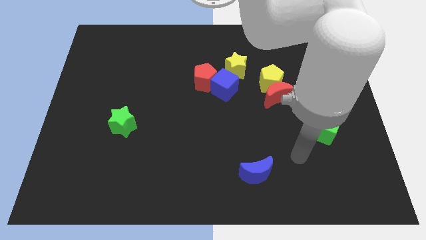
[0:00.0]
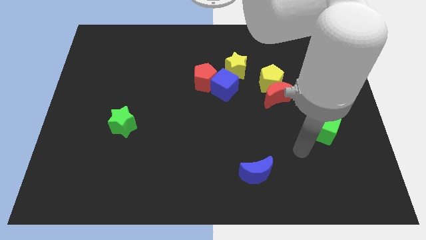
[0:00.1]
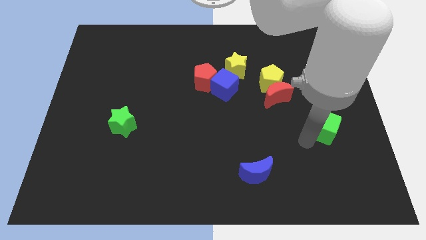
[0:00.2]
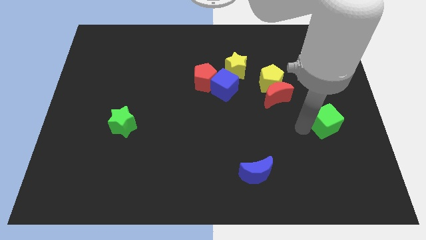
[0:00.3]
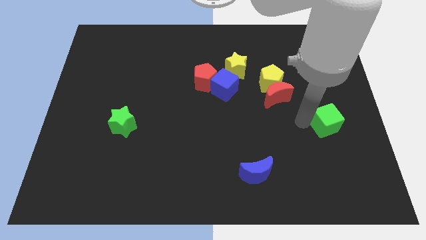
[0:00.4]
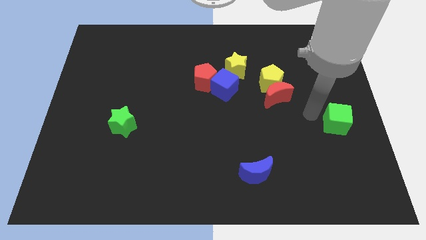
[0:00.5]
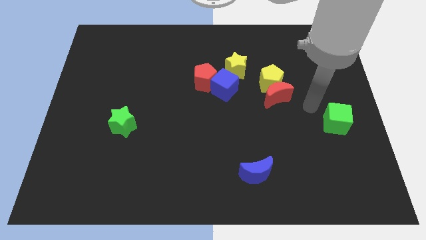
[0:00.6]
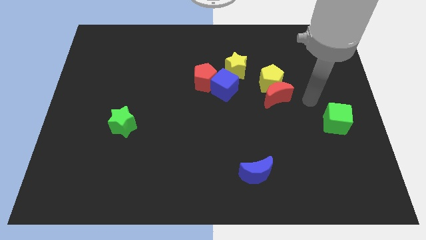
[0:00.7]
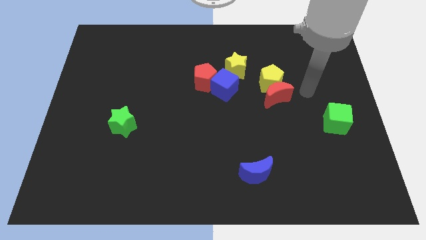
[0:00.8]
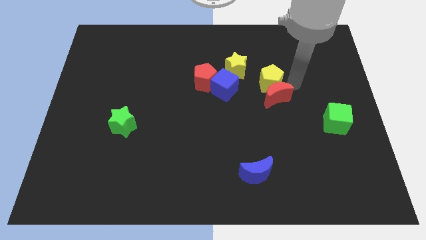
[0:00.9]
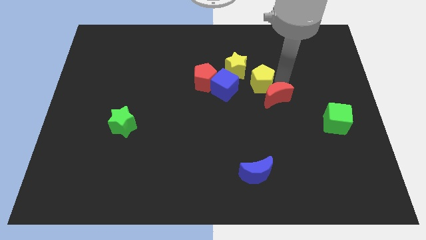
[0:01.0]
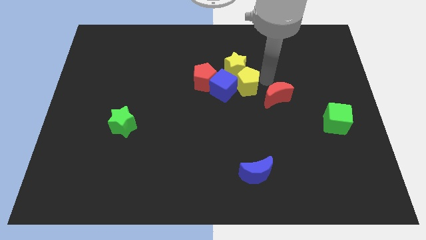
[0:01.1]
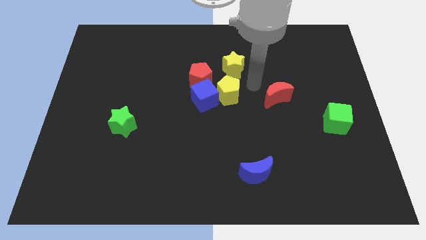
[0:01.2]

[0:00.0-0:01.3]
move the red moon away from the yellow pentagon

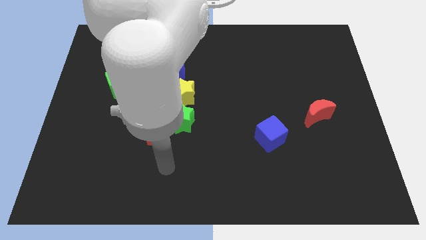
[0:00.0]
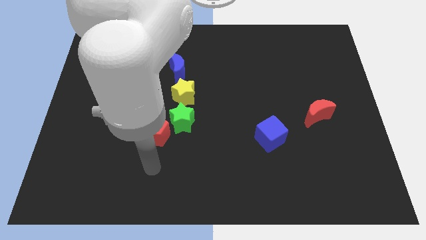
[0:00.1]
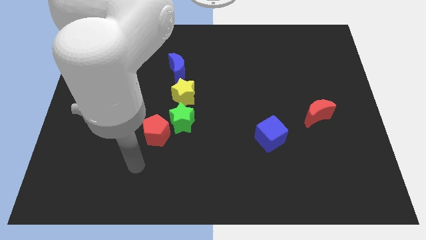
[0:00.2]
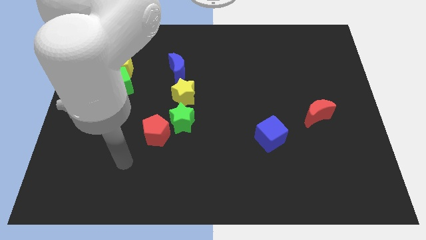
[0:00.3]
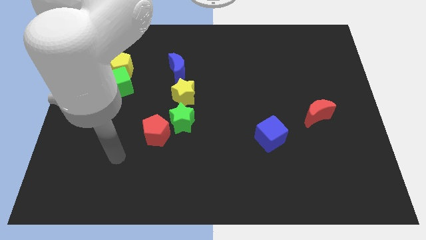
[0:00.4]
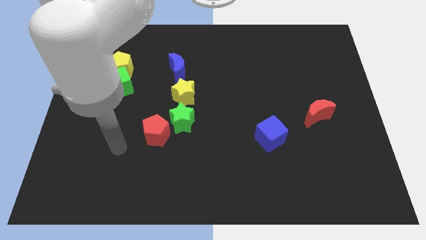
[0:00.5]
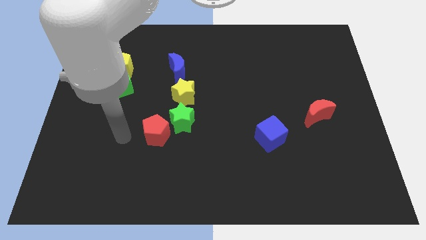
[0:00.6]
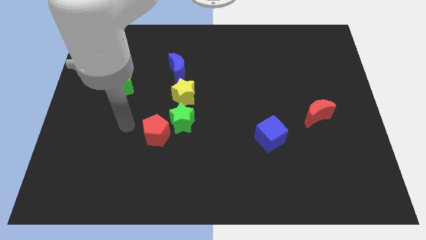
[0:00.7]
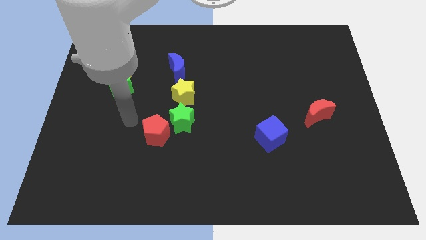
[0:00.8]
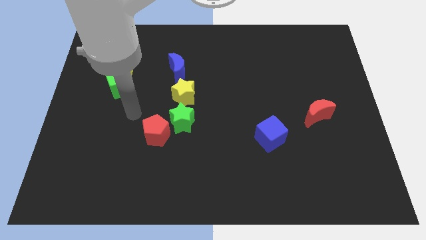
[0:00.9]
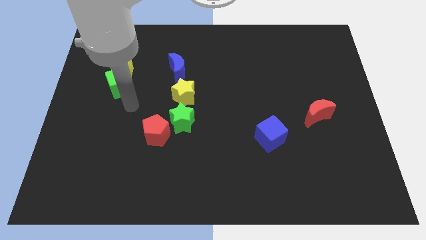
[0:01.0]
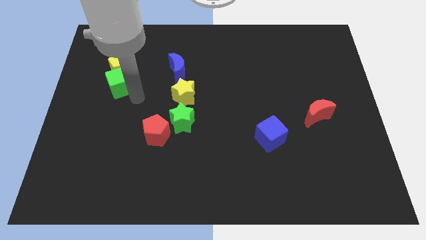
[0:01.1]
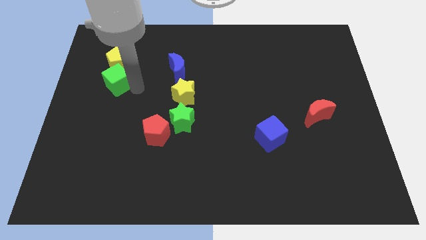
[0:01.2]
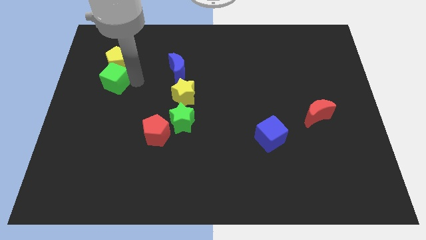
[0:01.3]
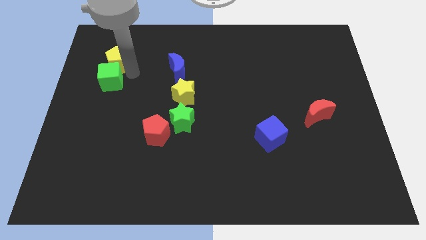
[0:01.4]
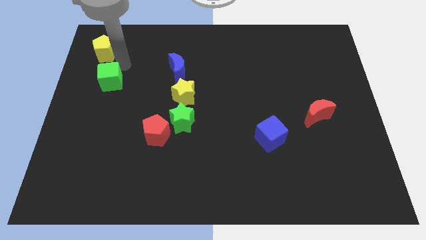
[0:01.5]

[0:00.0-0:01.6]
move the green cube away from the yellow pentagon

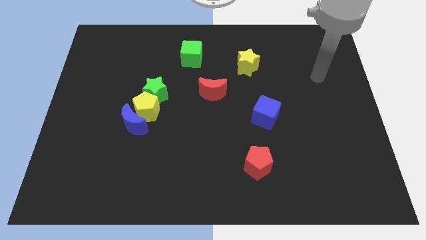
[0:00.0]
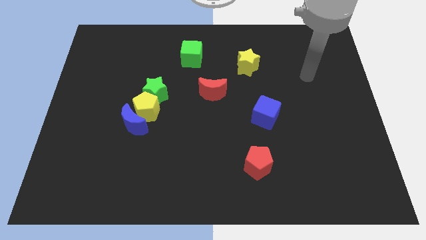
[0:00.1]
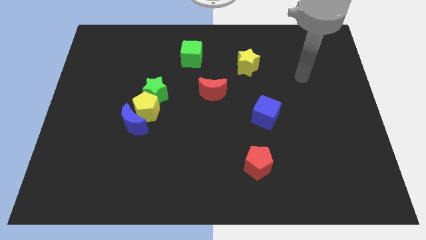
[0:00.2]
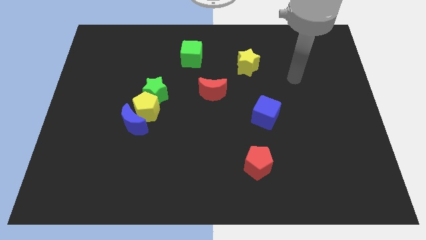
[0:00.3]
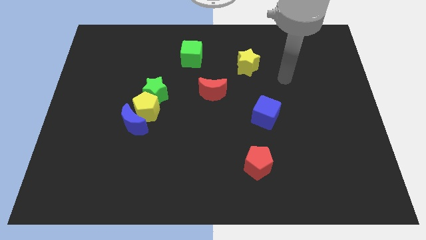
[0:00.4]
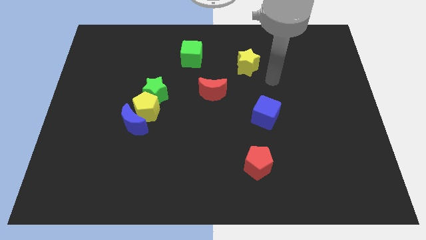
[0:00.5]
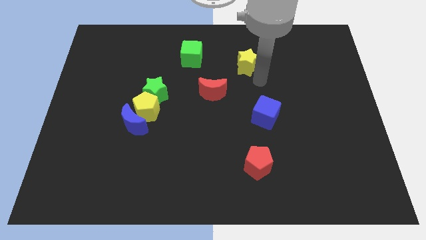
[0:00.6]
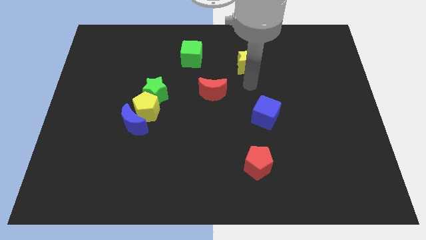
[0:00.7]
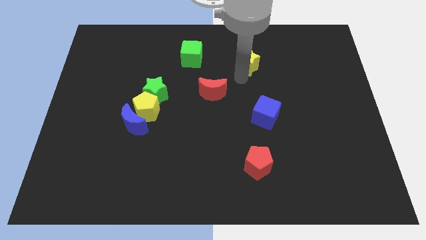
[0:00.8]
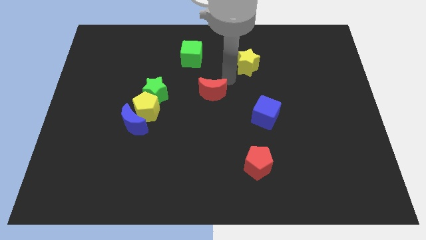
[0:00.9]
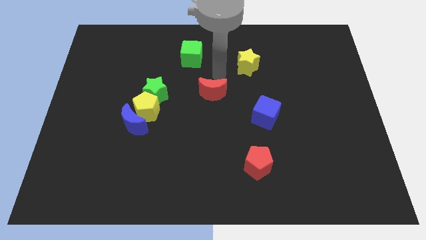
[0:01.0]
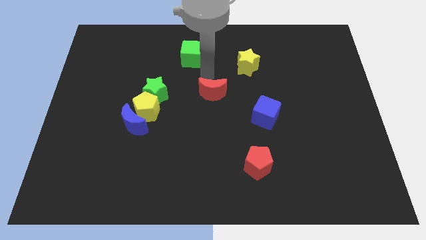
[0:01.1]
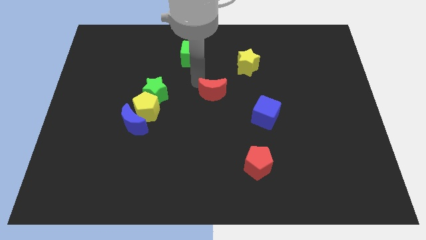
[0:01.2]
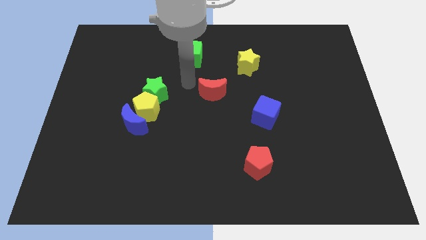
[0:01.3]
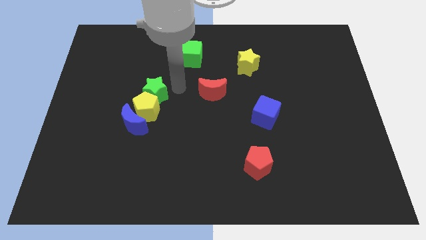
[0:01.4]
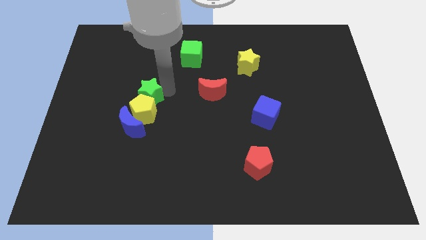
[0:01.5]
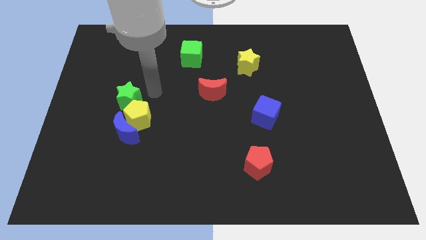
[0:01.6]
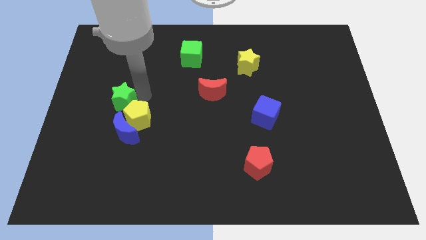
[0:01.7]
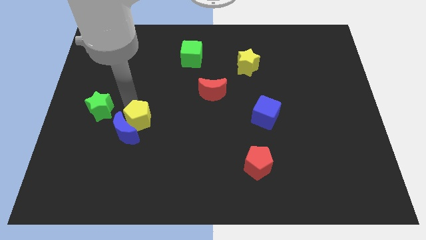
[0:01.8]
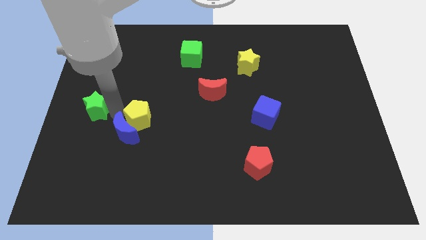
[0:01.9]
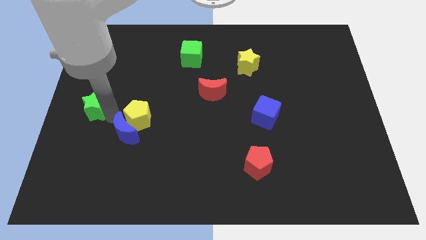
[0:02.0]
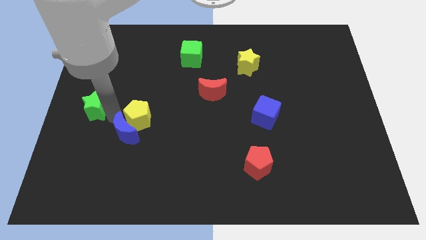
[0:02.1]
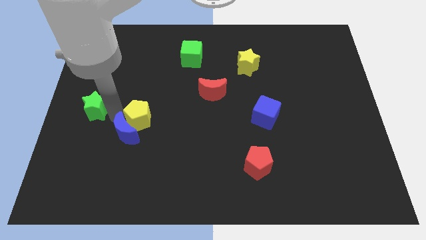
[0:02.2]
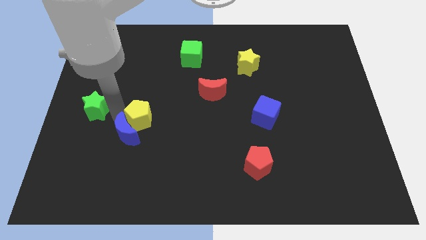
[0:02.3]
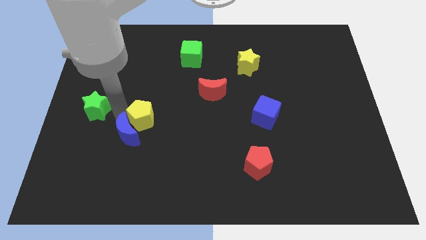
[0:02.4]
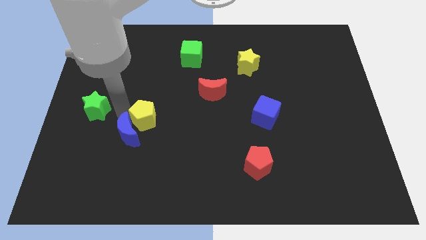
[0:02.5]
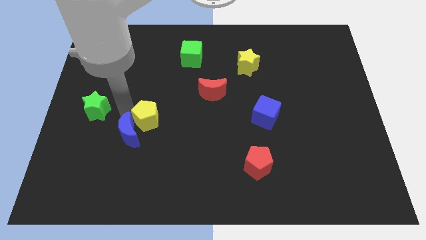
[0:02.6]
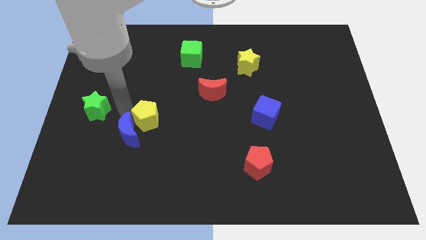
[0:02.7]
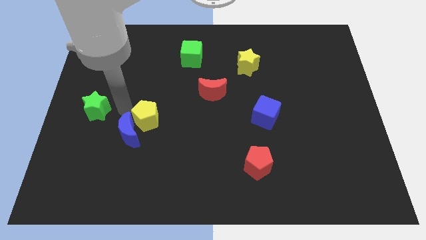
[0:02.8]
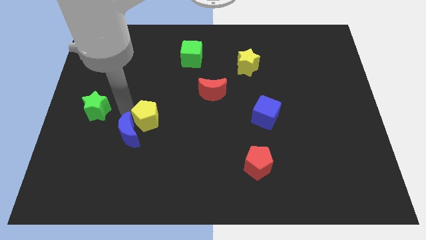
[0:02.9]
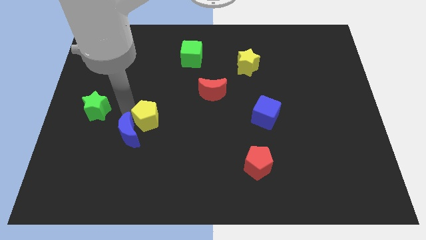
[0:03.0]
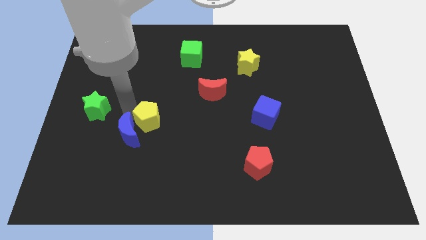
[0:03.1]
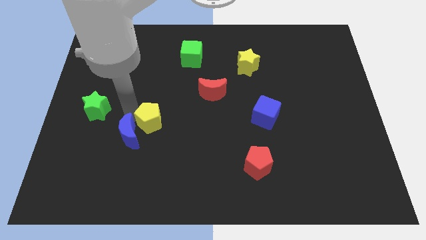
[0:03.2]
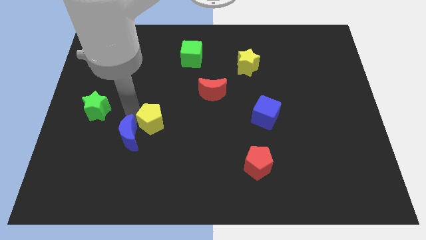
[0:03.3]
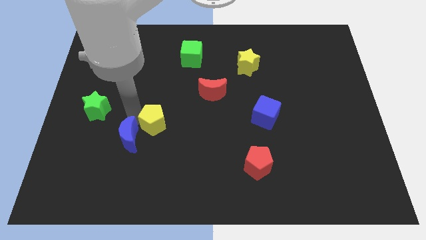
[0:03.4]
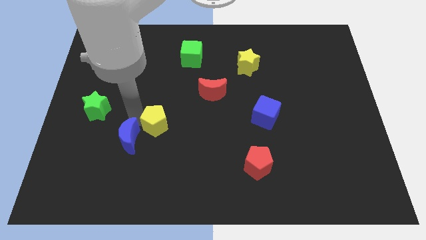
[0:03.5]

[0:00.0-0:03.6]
move the yellow pentagon away from the blue moon and green star

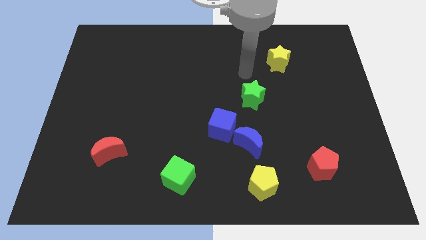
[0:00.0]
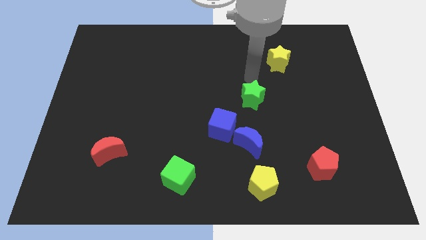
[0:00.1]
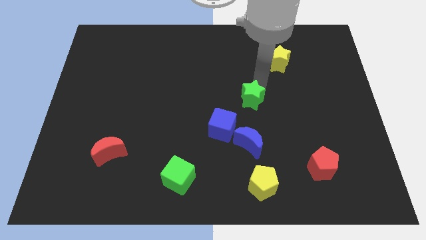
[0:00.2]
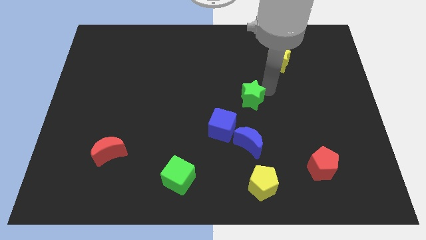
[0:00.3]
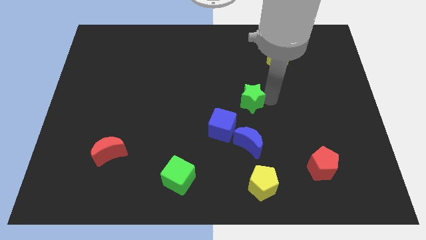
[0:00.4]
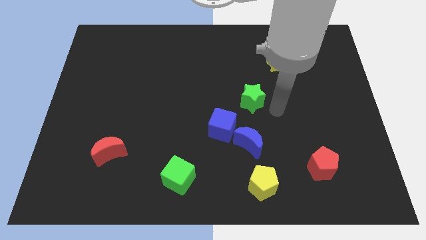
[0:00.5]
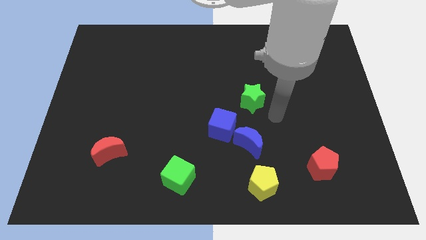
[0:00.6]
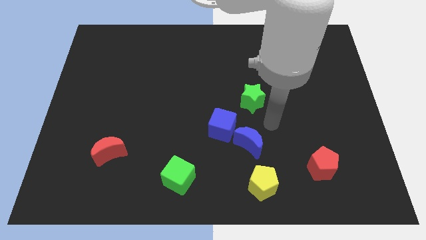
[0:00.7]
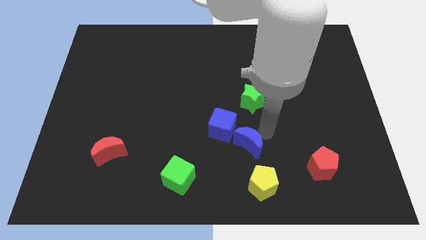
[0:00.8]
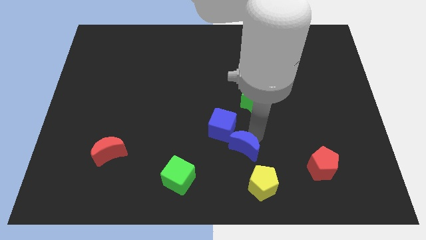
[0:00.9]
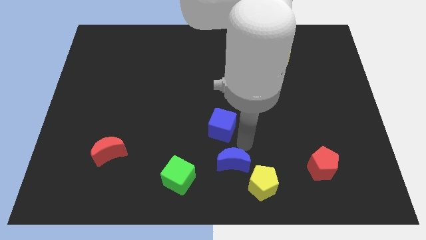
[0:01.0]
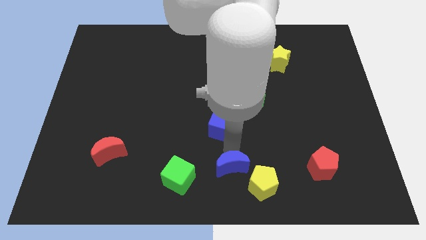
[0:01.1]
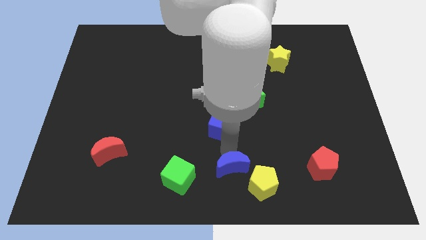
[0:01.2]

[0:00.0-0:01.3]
separate the blue cube from the blue moon

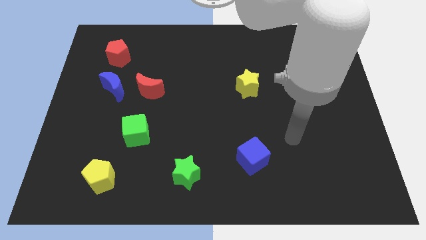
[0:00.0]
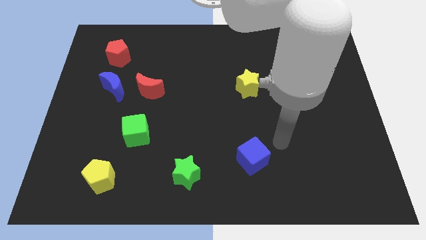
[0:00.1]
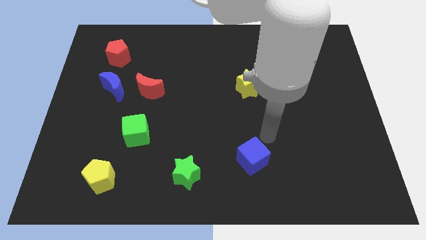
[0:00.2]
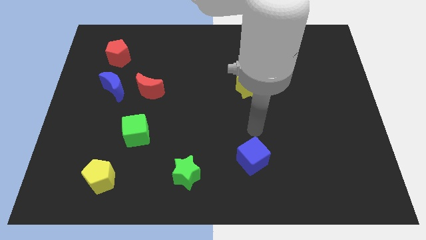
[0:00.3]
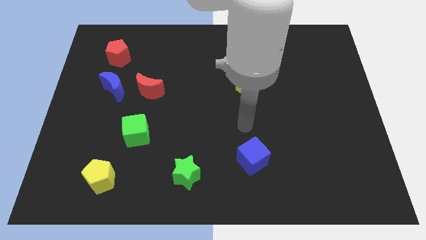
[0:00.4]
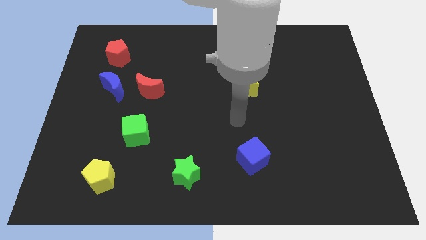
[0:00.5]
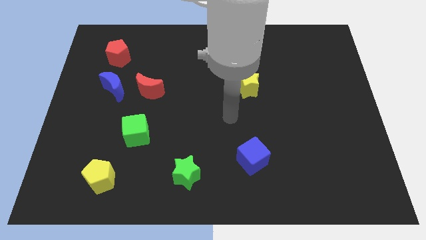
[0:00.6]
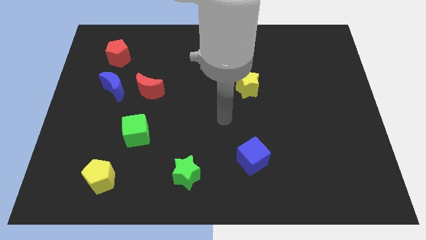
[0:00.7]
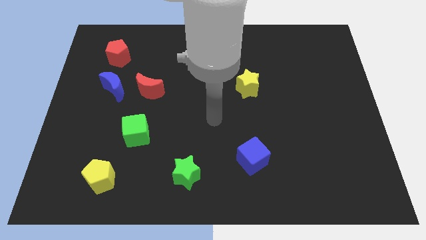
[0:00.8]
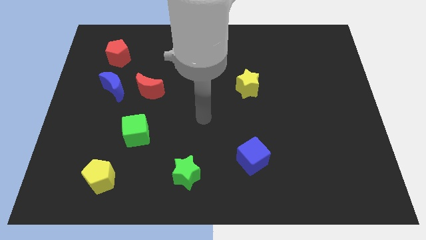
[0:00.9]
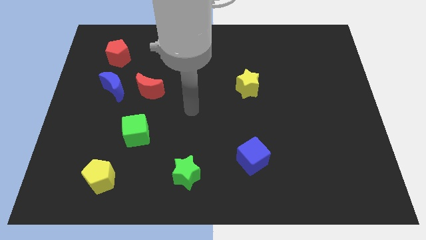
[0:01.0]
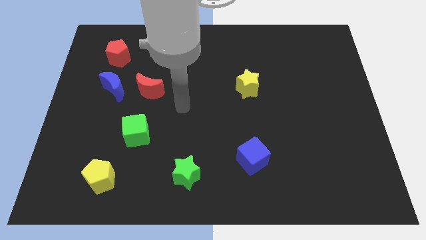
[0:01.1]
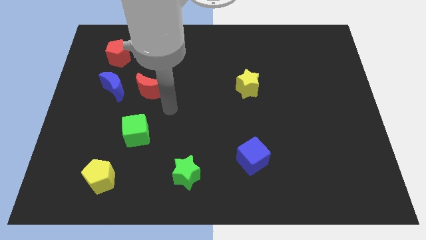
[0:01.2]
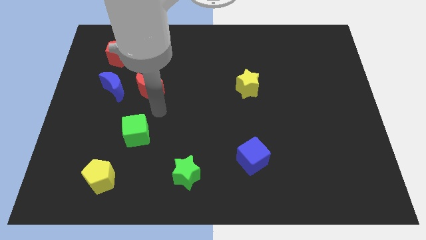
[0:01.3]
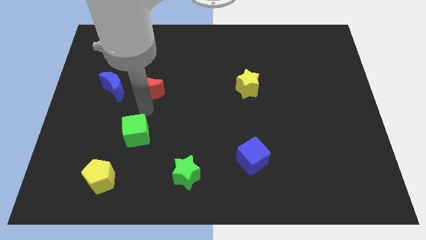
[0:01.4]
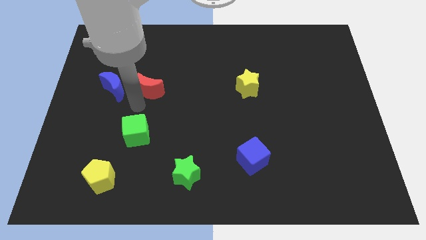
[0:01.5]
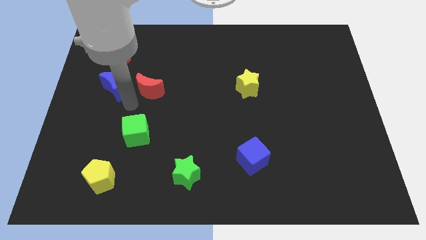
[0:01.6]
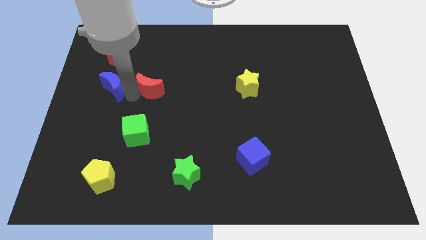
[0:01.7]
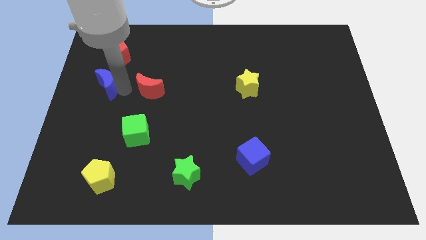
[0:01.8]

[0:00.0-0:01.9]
pull the red moon apart from the blue moon
